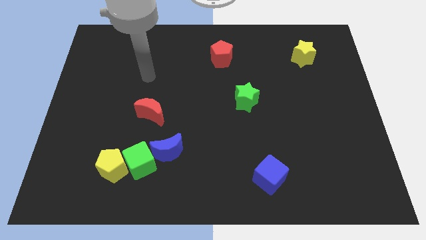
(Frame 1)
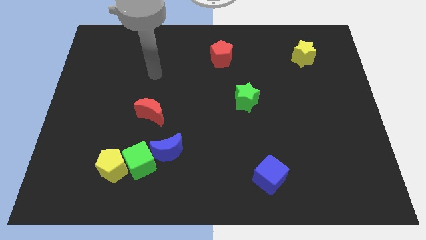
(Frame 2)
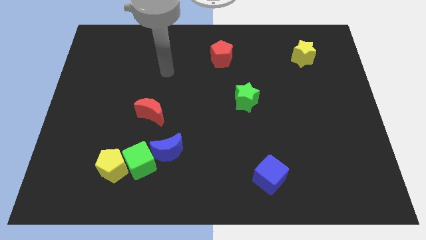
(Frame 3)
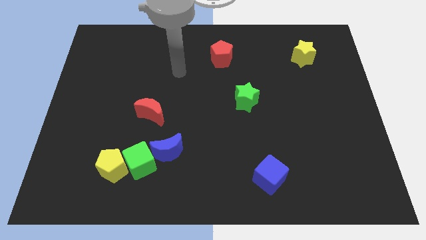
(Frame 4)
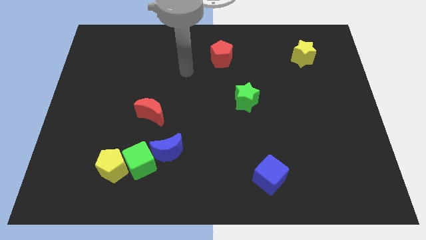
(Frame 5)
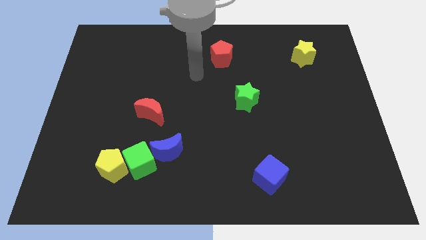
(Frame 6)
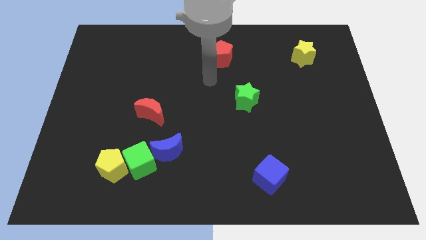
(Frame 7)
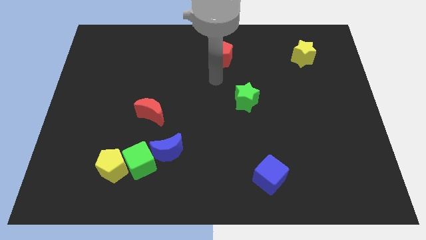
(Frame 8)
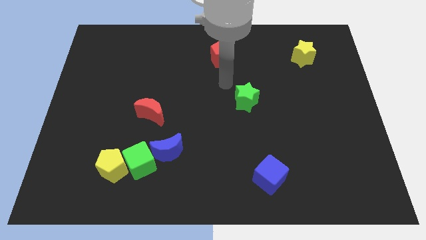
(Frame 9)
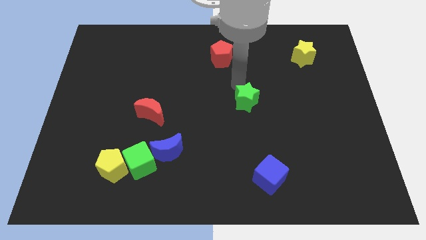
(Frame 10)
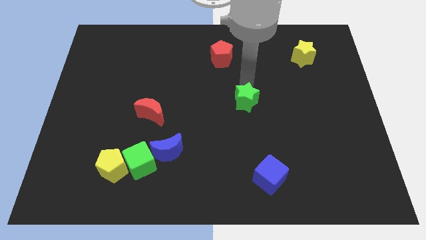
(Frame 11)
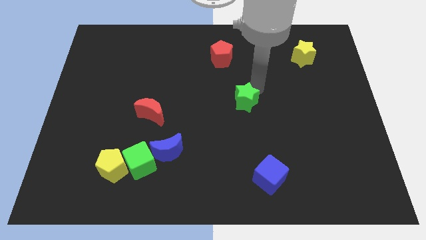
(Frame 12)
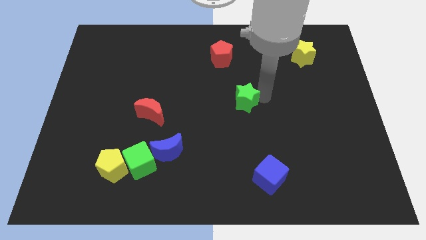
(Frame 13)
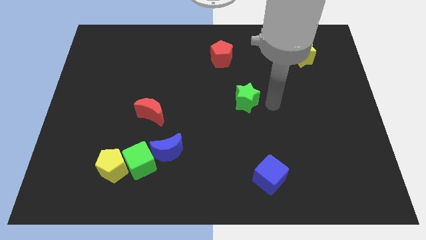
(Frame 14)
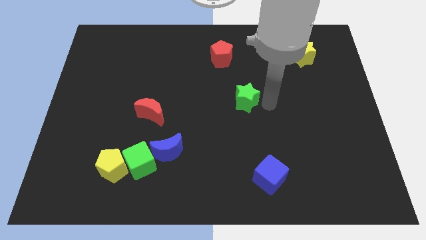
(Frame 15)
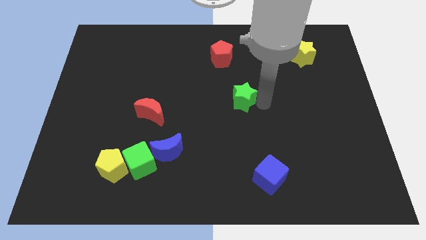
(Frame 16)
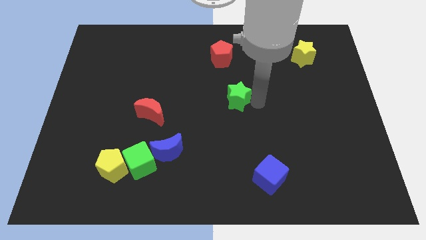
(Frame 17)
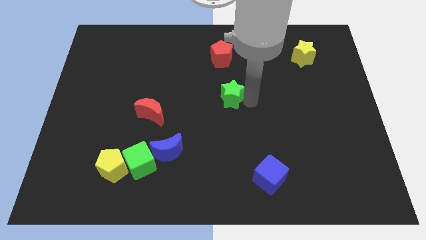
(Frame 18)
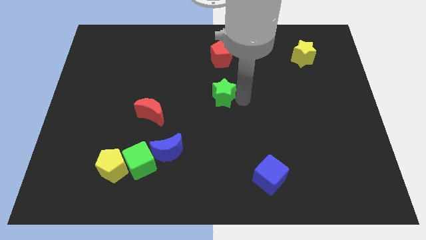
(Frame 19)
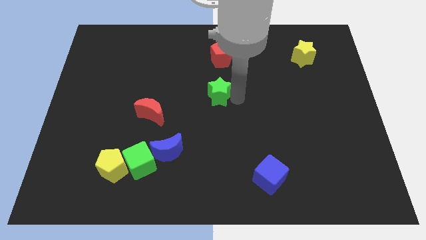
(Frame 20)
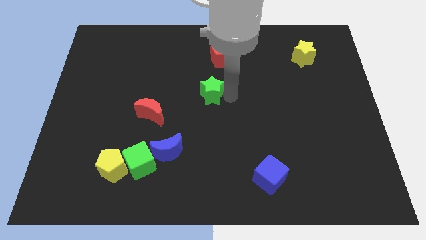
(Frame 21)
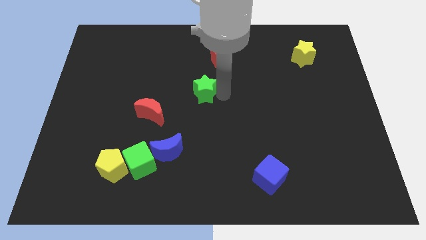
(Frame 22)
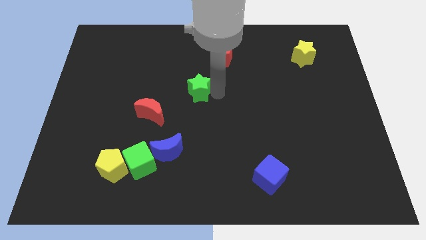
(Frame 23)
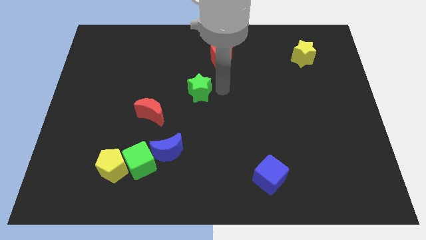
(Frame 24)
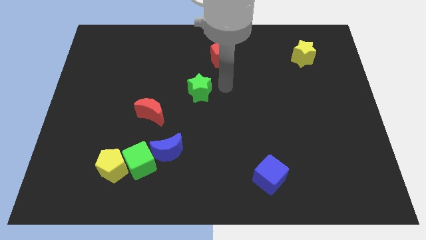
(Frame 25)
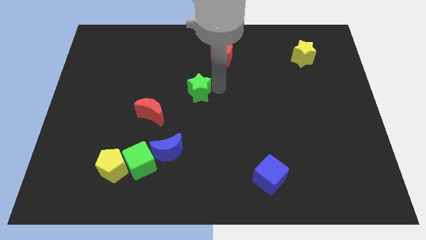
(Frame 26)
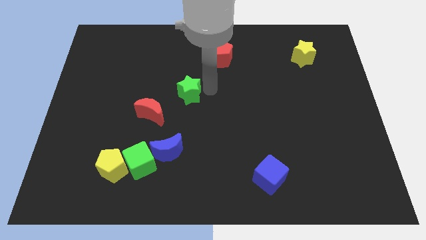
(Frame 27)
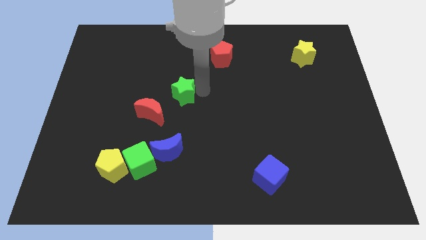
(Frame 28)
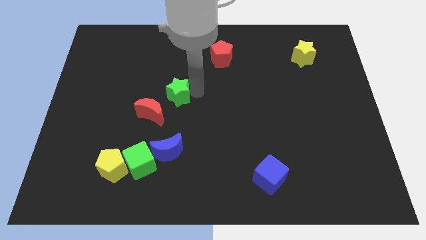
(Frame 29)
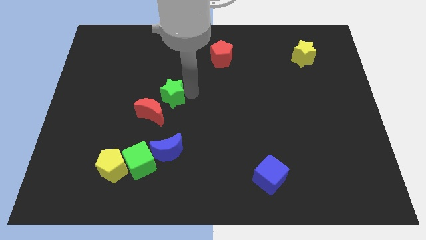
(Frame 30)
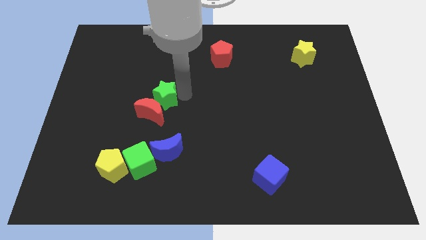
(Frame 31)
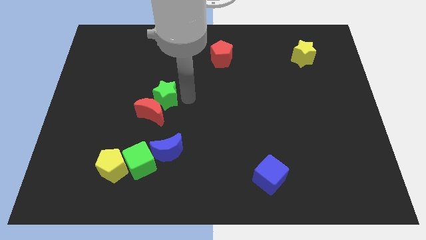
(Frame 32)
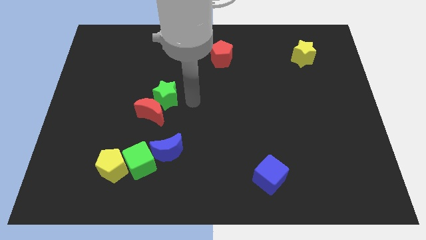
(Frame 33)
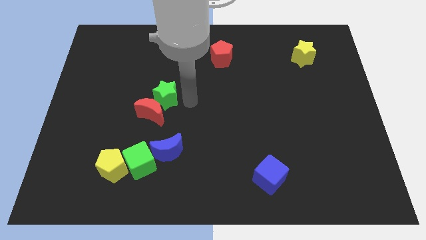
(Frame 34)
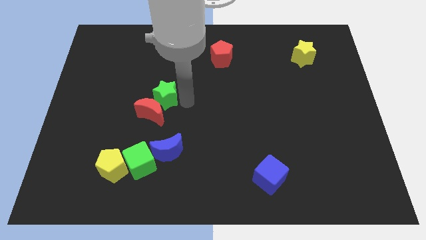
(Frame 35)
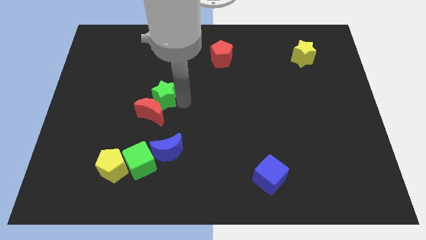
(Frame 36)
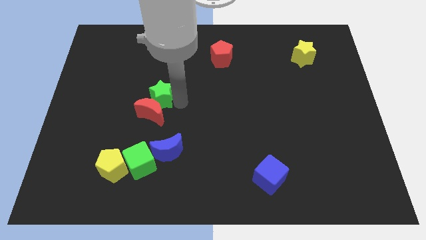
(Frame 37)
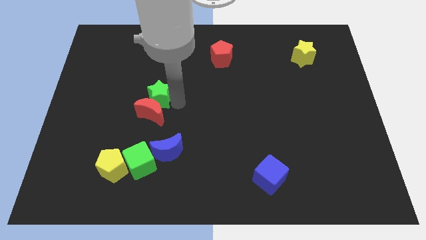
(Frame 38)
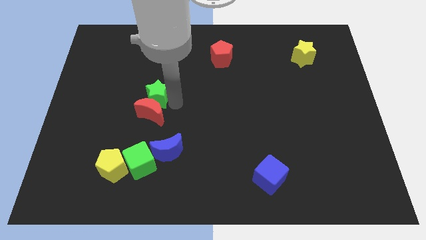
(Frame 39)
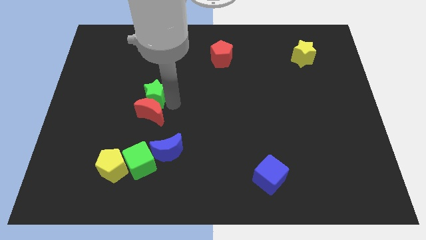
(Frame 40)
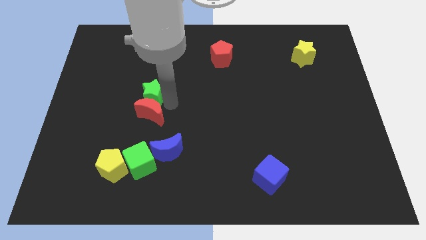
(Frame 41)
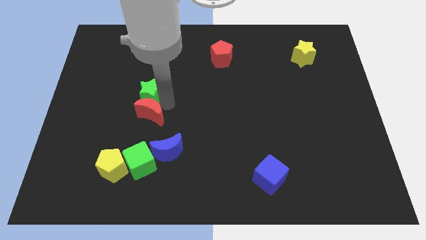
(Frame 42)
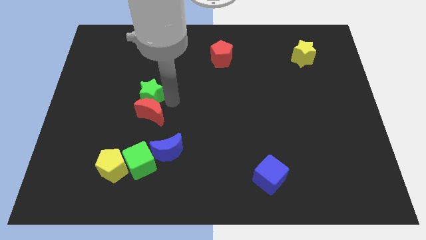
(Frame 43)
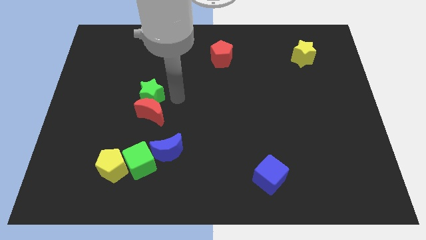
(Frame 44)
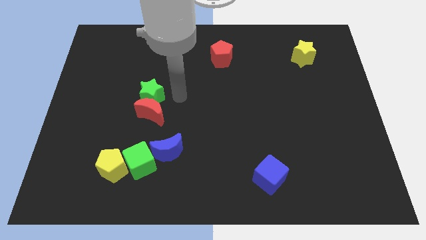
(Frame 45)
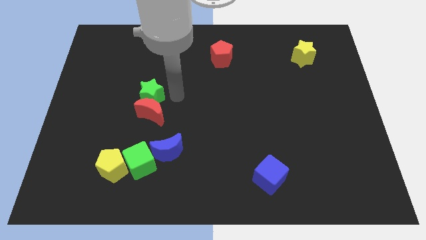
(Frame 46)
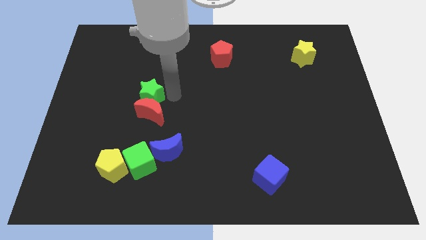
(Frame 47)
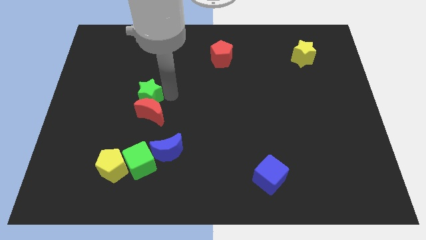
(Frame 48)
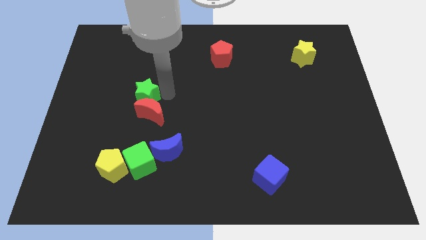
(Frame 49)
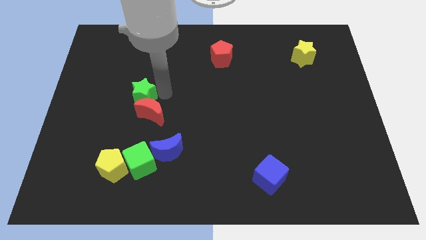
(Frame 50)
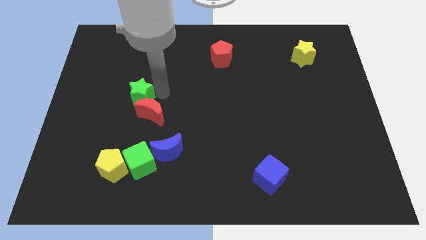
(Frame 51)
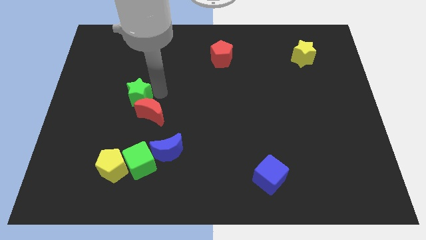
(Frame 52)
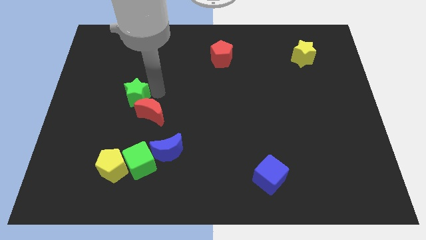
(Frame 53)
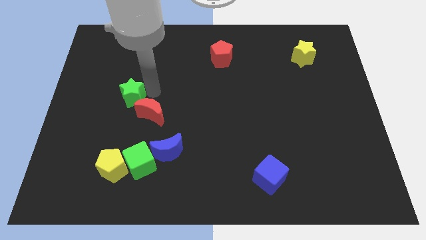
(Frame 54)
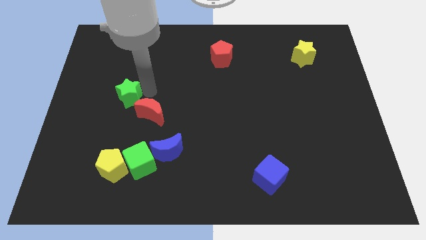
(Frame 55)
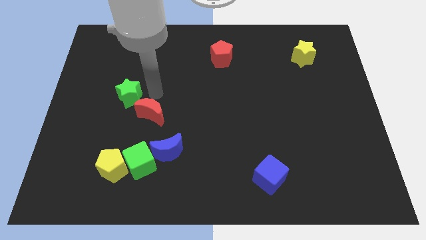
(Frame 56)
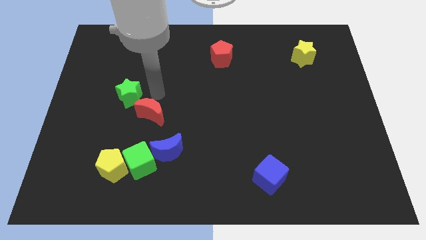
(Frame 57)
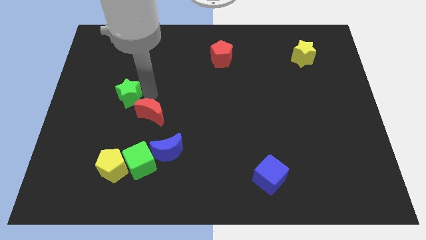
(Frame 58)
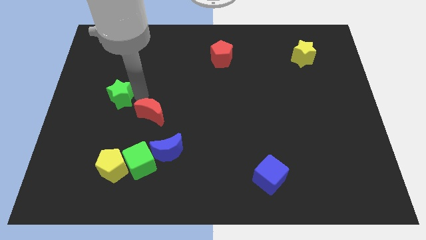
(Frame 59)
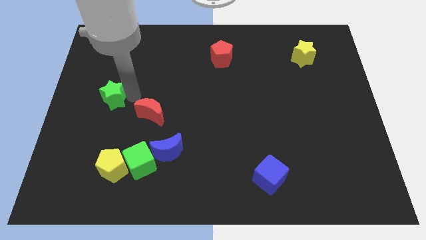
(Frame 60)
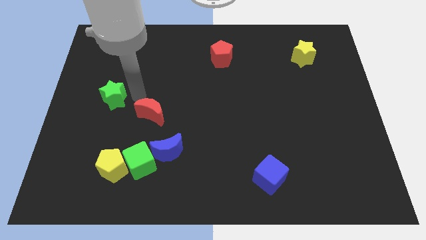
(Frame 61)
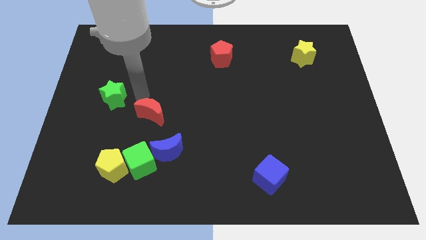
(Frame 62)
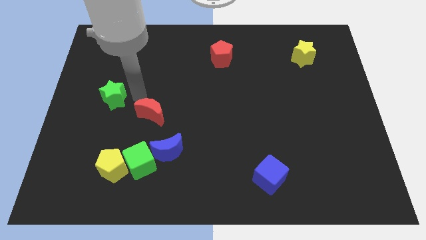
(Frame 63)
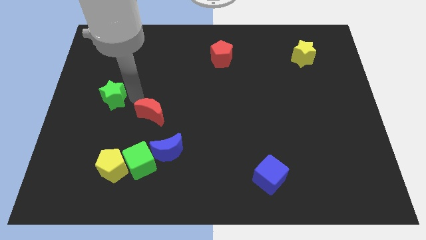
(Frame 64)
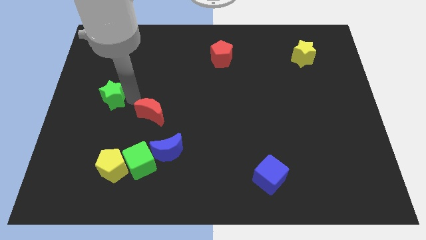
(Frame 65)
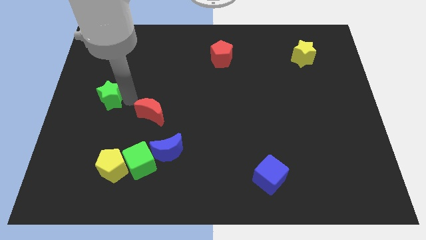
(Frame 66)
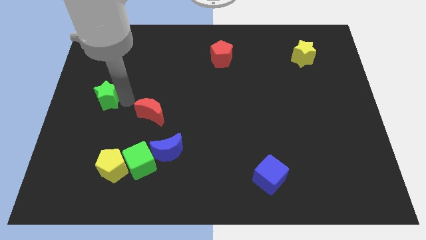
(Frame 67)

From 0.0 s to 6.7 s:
put the green star to the left side of the board

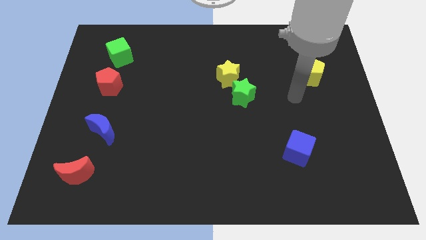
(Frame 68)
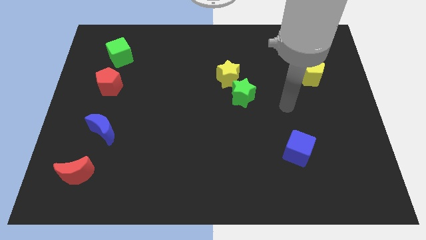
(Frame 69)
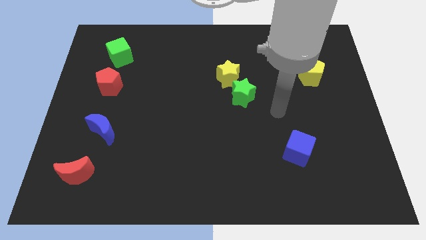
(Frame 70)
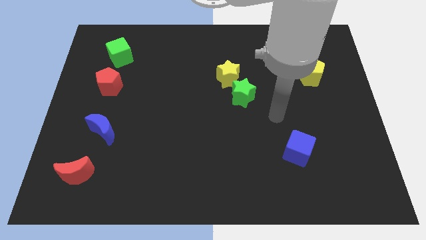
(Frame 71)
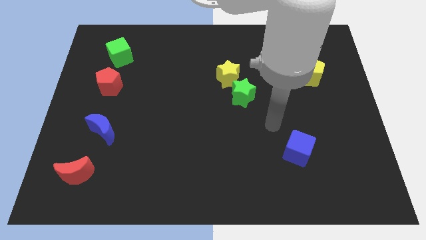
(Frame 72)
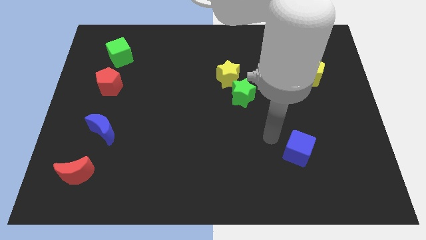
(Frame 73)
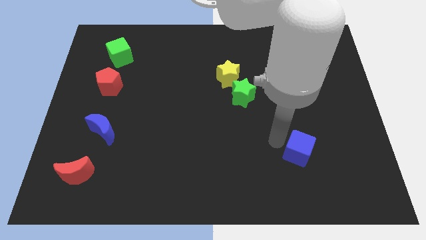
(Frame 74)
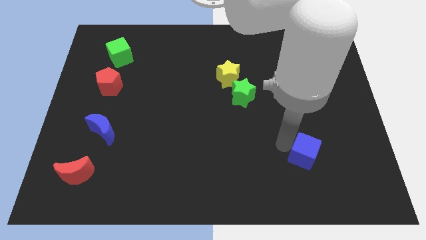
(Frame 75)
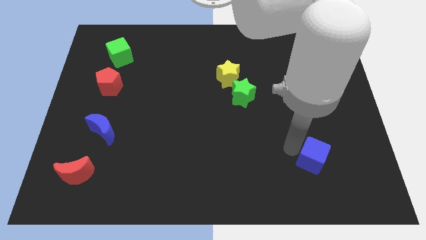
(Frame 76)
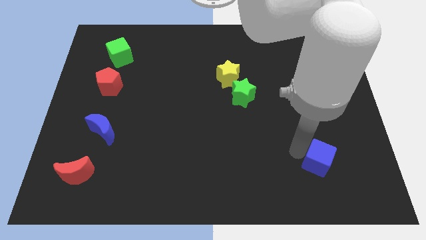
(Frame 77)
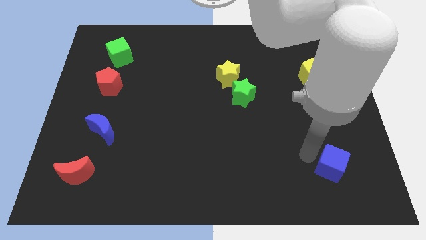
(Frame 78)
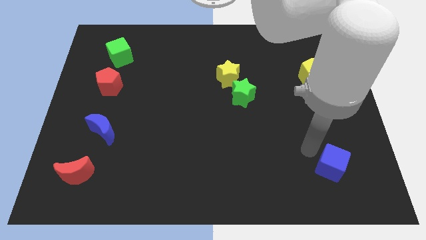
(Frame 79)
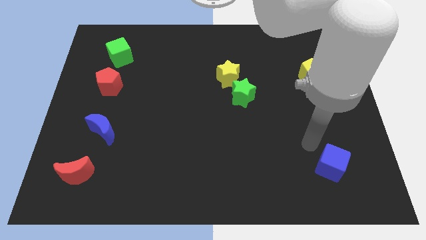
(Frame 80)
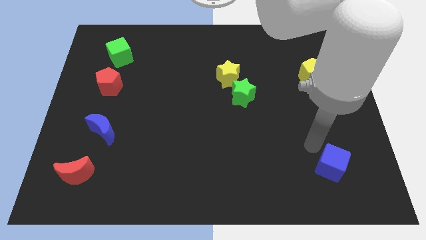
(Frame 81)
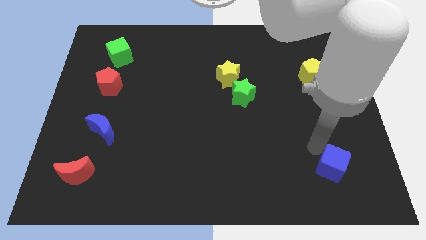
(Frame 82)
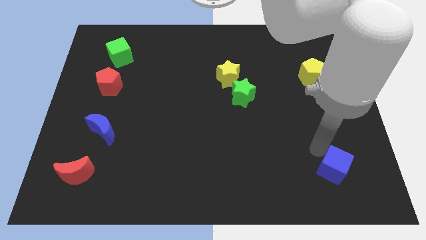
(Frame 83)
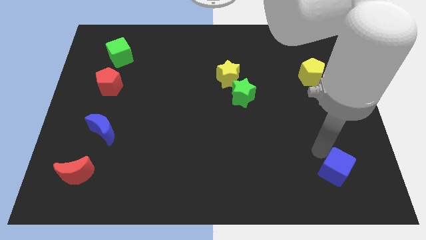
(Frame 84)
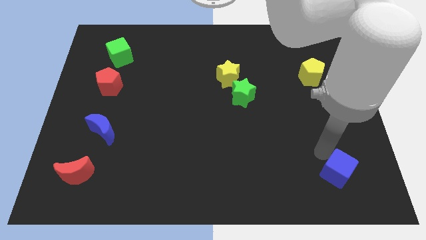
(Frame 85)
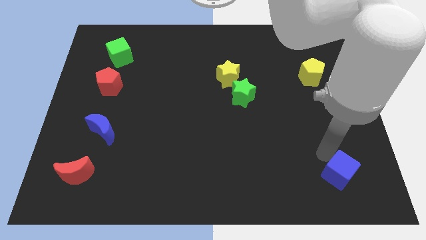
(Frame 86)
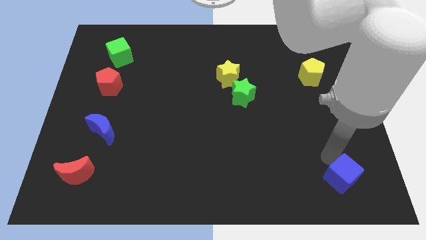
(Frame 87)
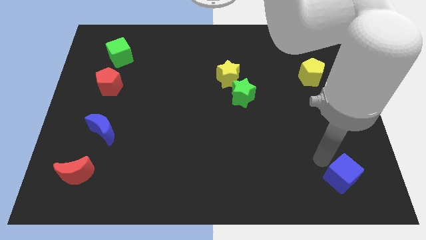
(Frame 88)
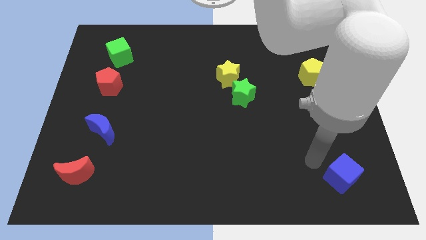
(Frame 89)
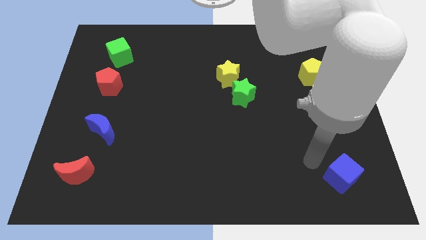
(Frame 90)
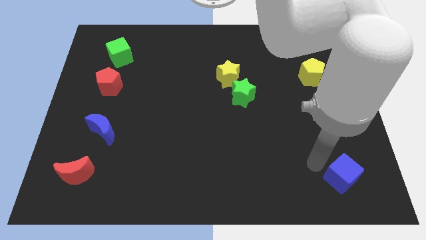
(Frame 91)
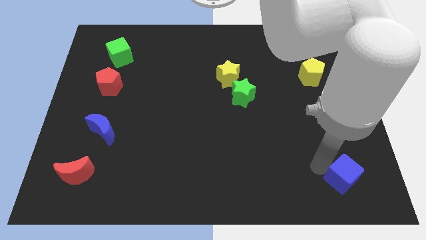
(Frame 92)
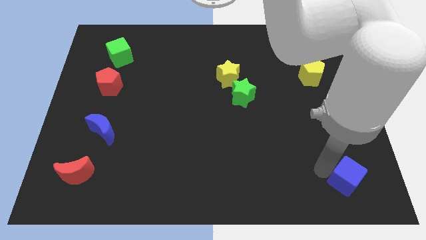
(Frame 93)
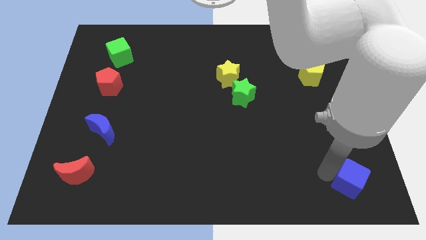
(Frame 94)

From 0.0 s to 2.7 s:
move the blue cube to the bottom right of the board
